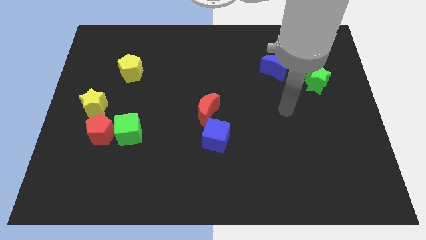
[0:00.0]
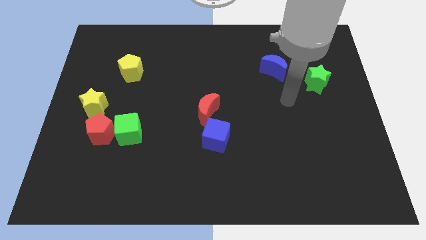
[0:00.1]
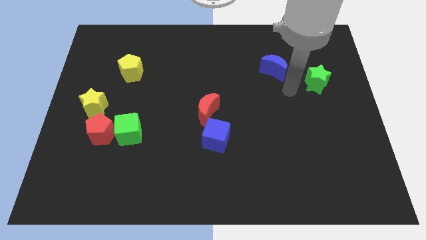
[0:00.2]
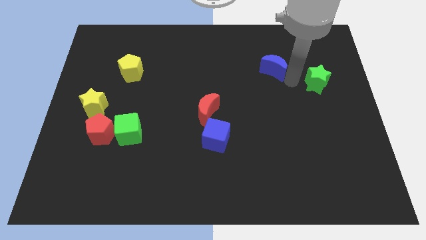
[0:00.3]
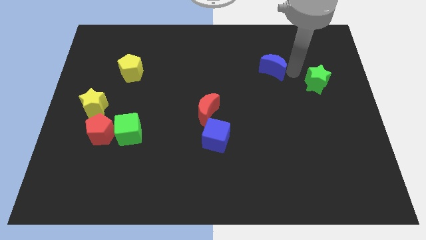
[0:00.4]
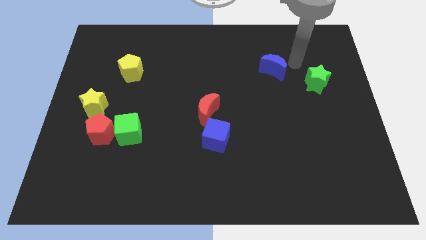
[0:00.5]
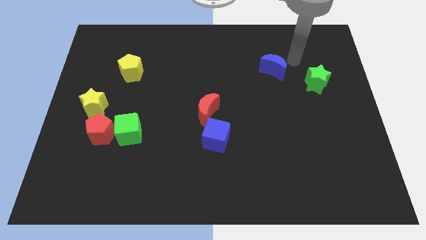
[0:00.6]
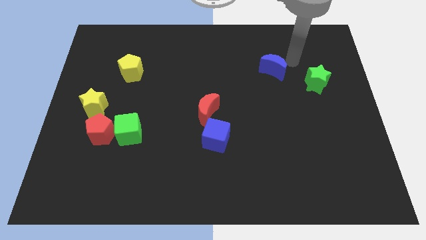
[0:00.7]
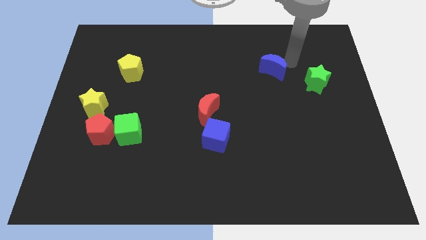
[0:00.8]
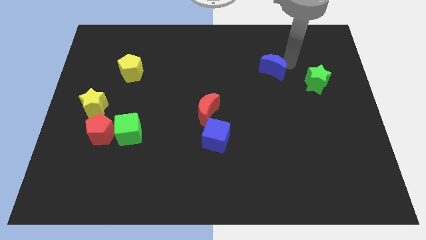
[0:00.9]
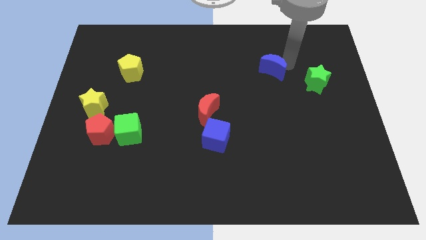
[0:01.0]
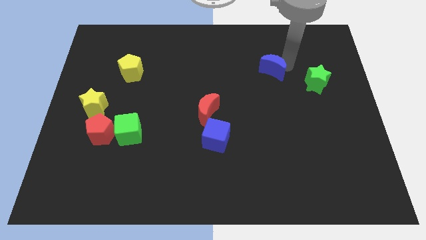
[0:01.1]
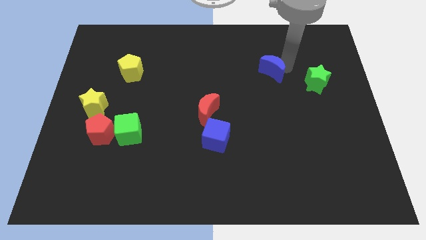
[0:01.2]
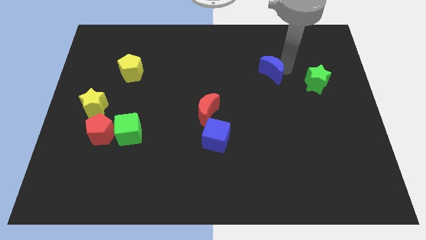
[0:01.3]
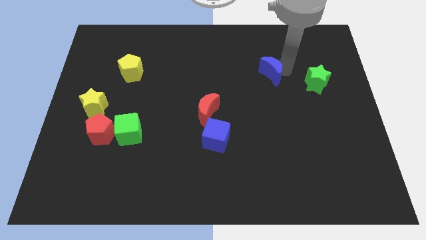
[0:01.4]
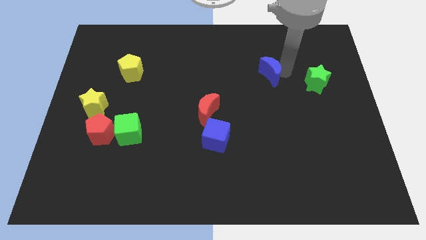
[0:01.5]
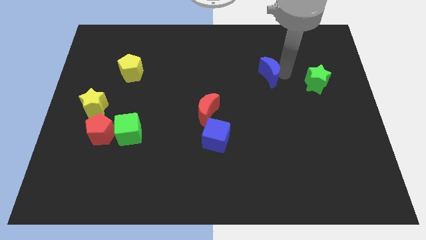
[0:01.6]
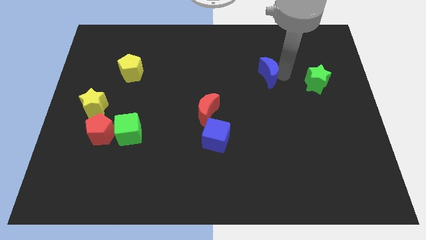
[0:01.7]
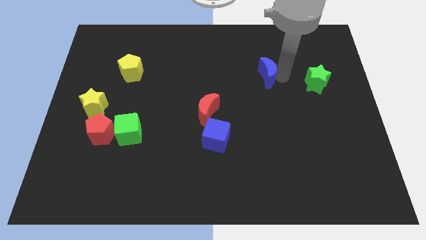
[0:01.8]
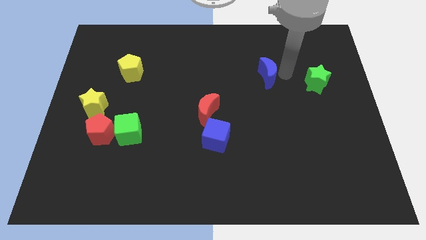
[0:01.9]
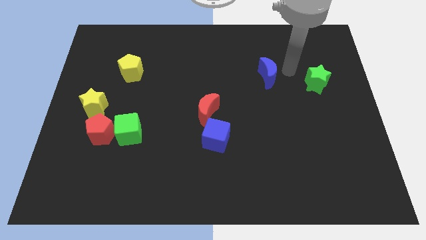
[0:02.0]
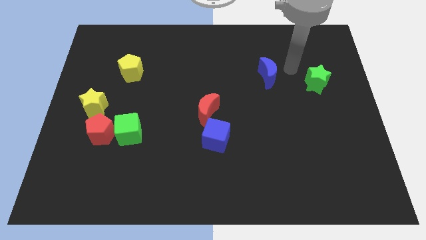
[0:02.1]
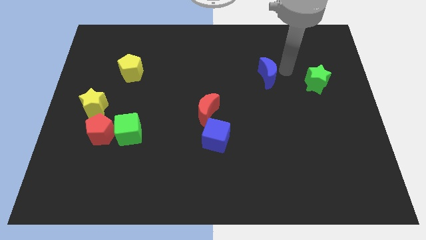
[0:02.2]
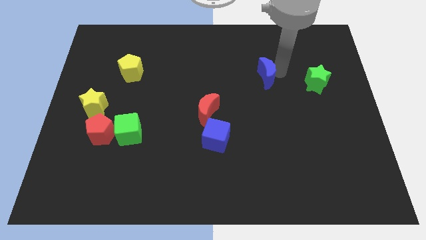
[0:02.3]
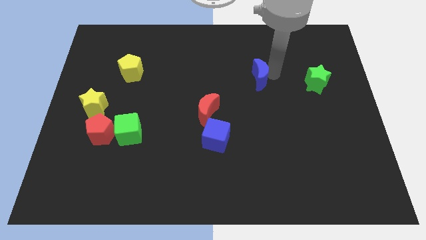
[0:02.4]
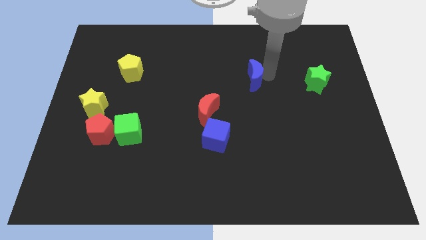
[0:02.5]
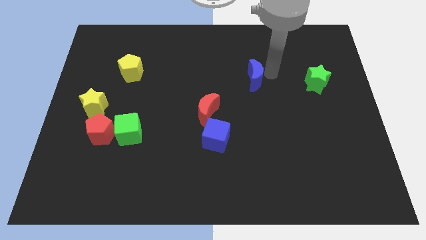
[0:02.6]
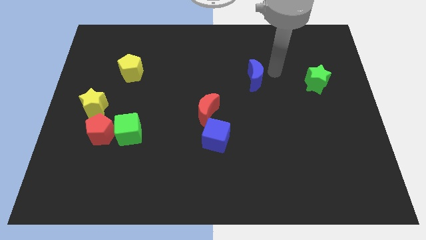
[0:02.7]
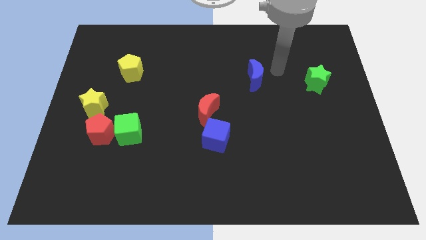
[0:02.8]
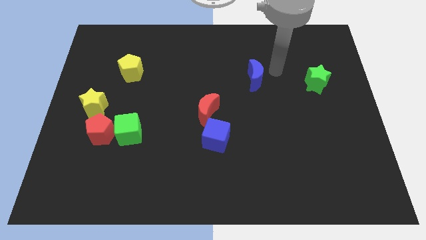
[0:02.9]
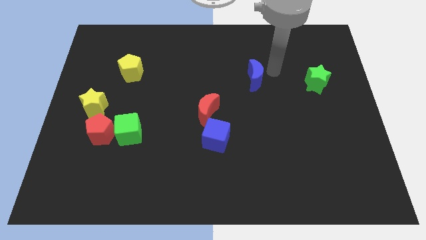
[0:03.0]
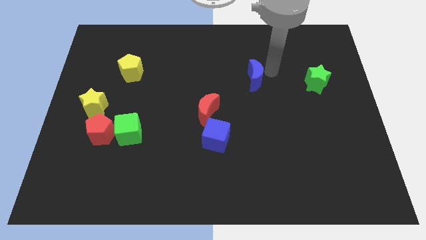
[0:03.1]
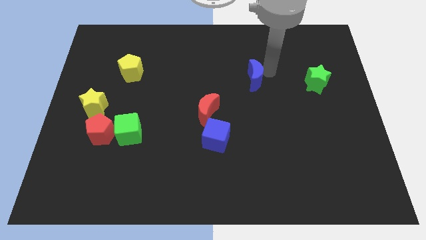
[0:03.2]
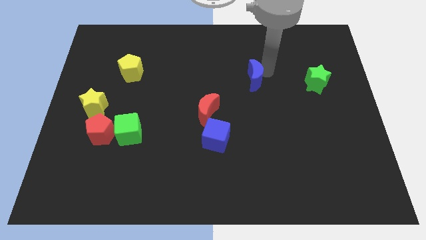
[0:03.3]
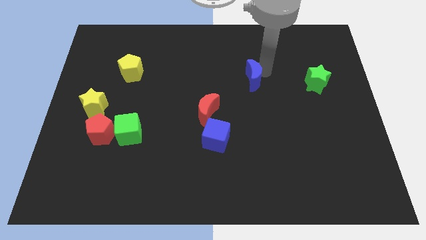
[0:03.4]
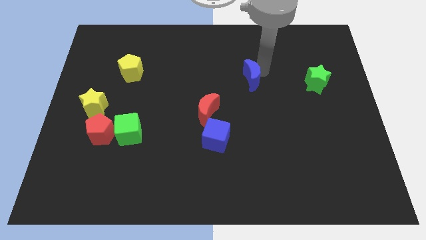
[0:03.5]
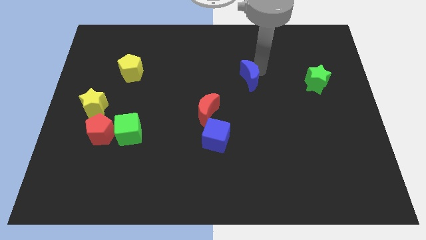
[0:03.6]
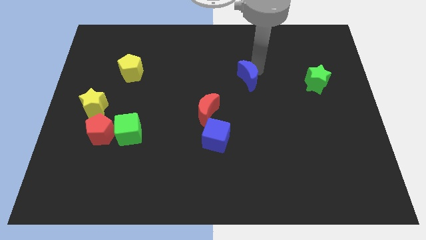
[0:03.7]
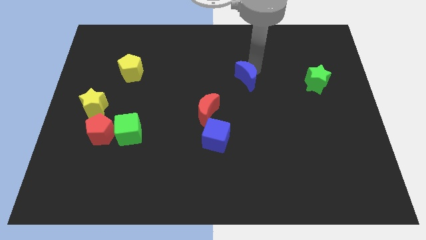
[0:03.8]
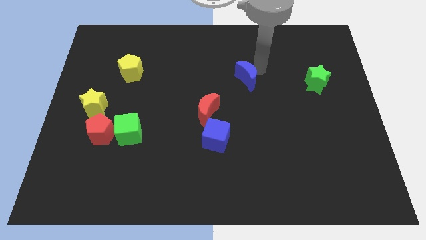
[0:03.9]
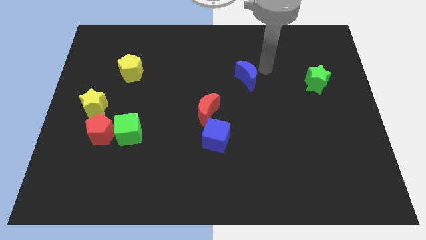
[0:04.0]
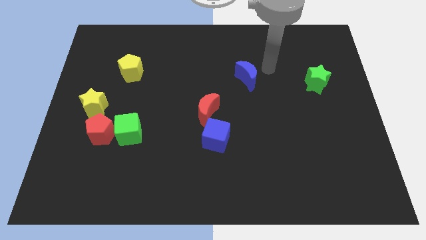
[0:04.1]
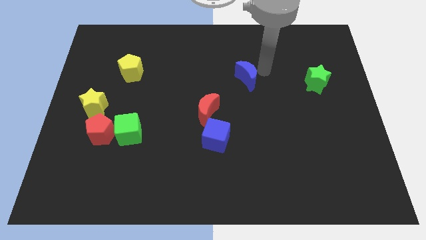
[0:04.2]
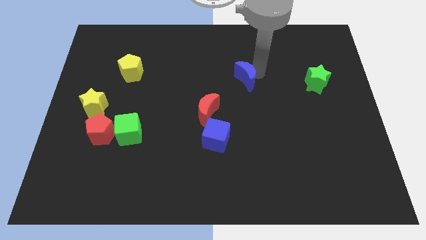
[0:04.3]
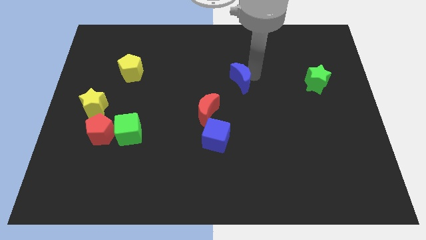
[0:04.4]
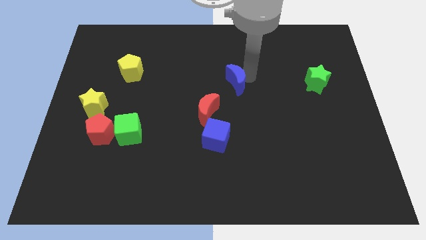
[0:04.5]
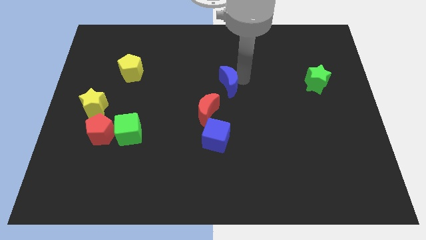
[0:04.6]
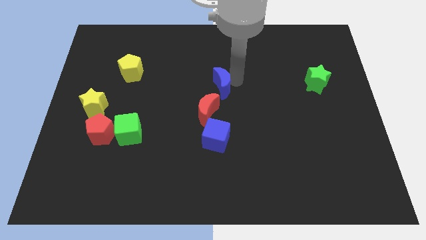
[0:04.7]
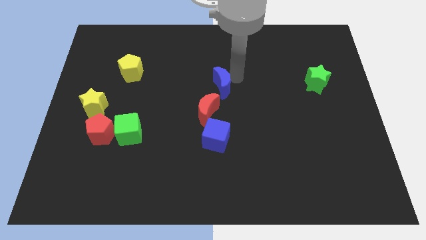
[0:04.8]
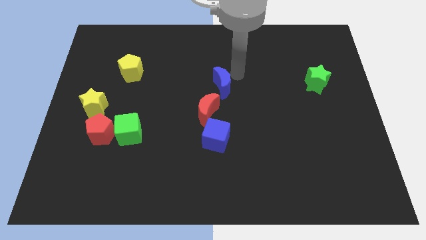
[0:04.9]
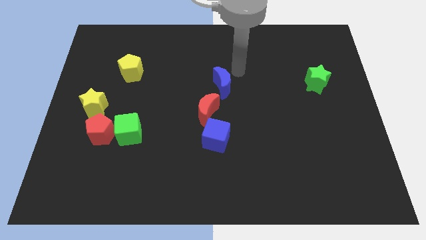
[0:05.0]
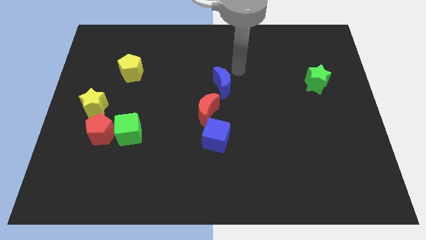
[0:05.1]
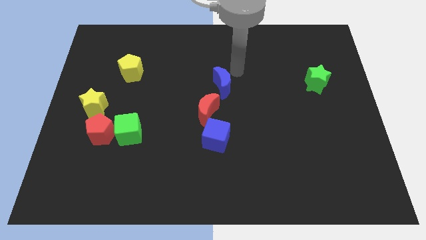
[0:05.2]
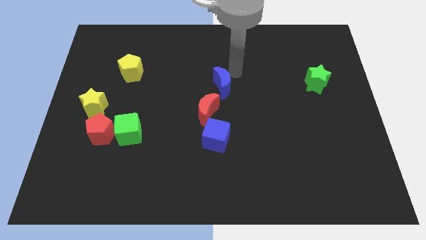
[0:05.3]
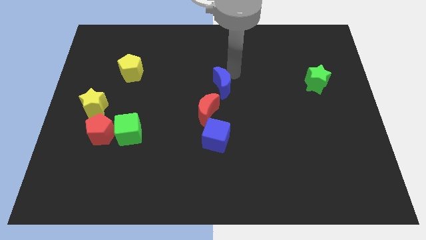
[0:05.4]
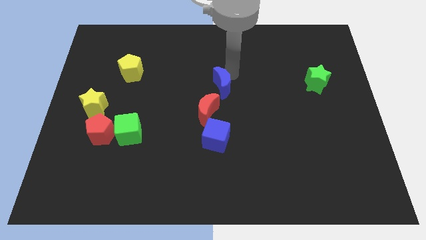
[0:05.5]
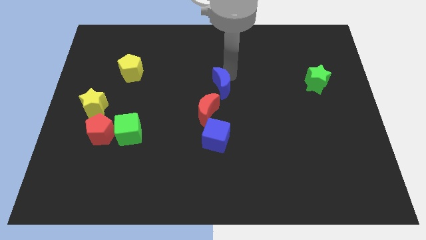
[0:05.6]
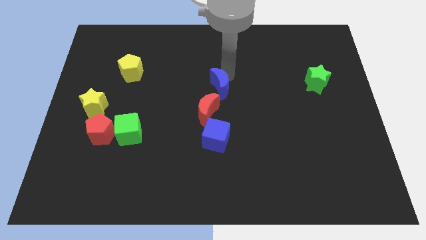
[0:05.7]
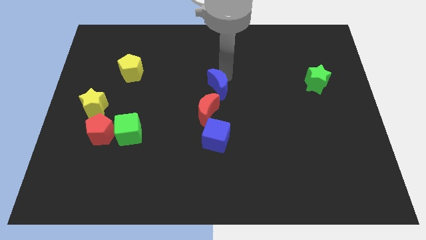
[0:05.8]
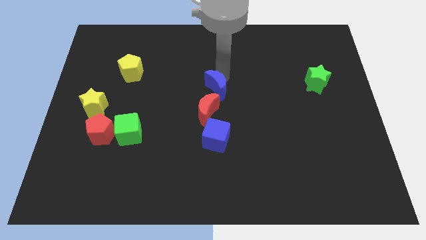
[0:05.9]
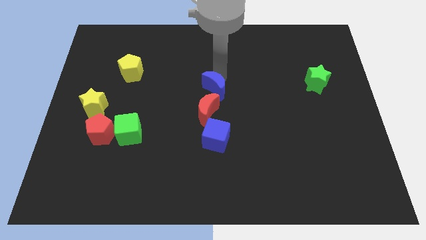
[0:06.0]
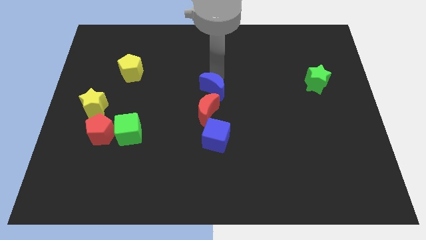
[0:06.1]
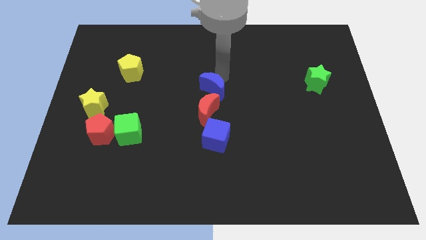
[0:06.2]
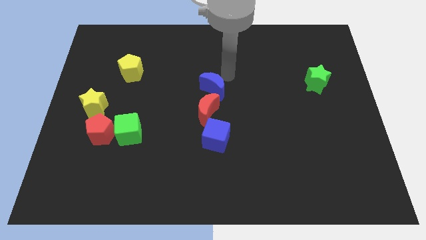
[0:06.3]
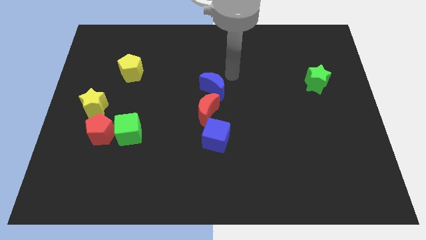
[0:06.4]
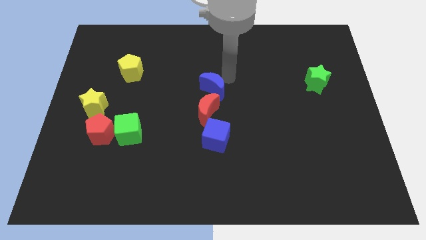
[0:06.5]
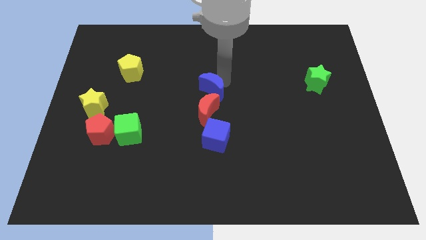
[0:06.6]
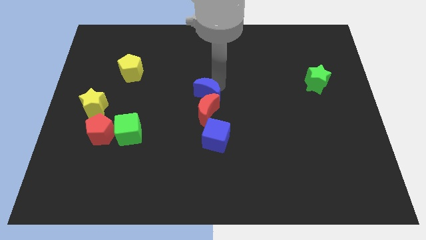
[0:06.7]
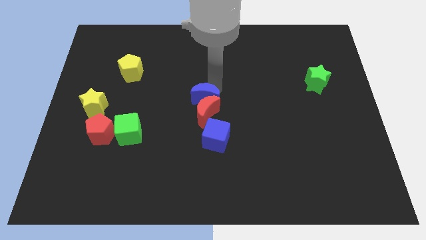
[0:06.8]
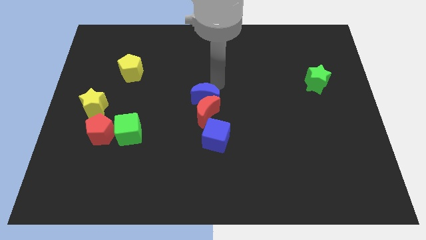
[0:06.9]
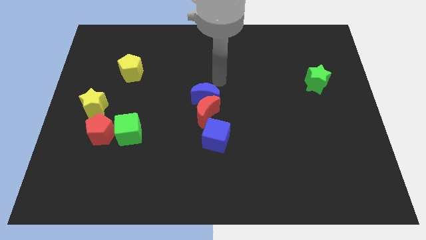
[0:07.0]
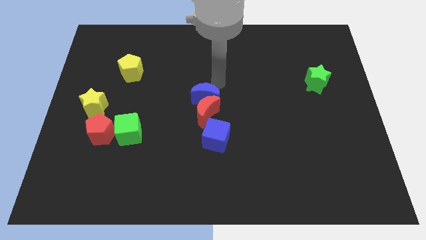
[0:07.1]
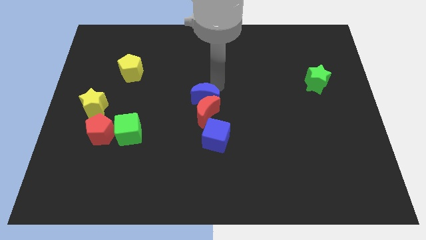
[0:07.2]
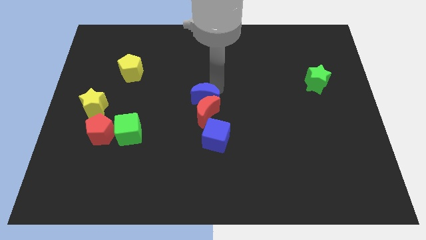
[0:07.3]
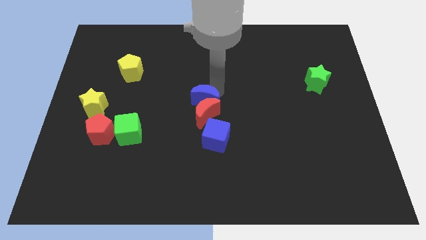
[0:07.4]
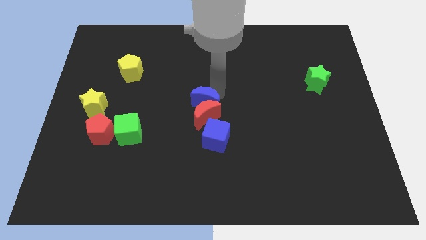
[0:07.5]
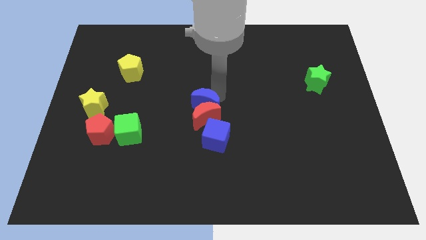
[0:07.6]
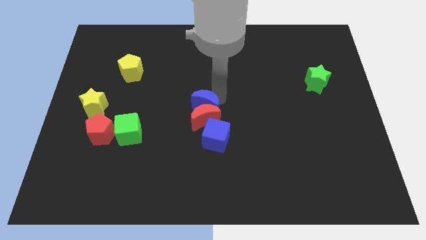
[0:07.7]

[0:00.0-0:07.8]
slide the blue moon down and to the left diagonally
